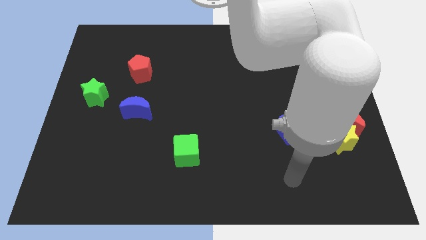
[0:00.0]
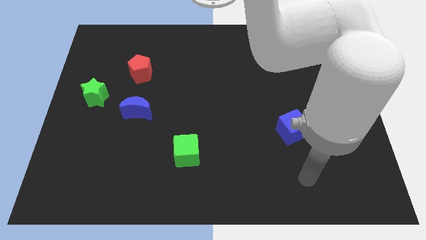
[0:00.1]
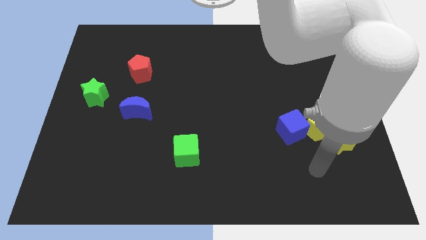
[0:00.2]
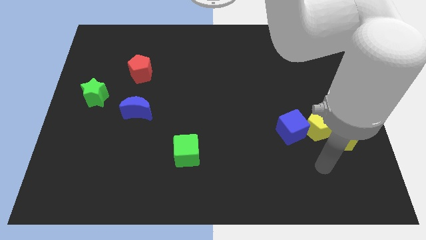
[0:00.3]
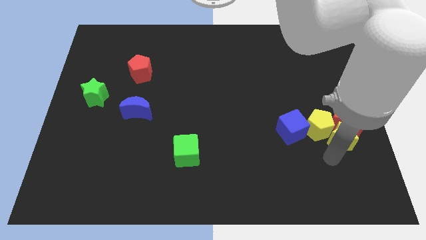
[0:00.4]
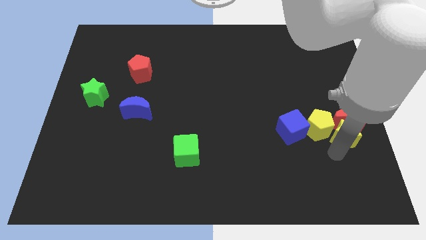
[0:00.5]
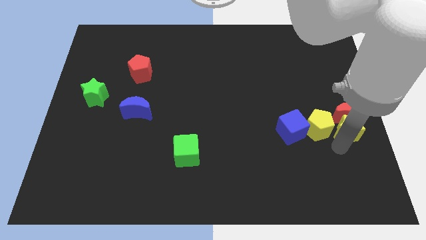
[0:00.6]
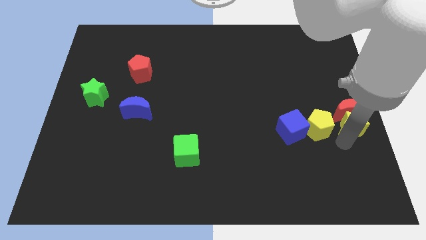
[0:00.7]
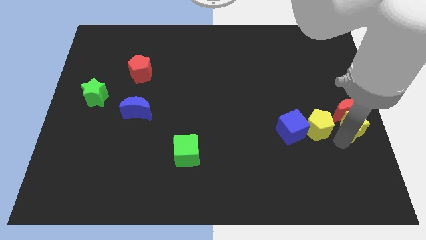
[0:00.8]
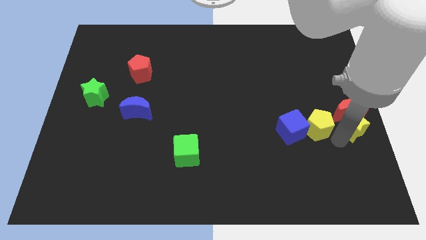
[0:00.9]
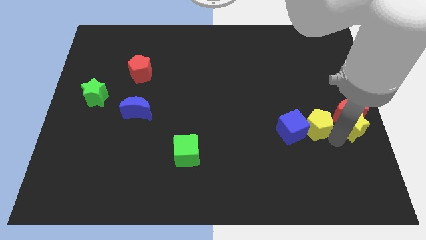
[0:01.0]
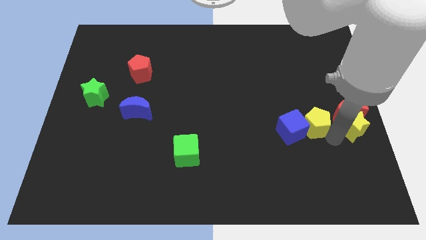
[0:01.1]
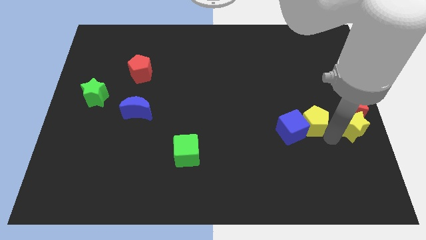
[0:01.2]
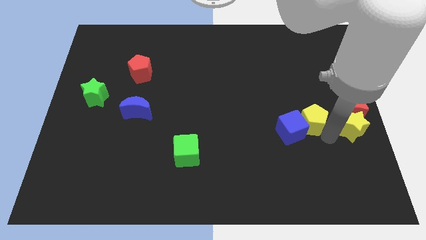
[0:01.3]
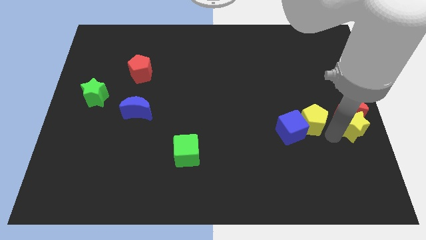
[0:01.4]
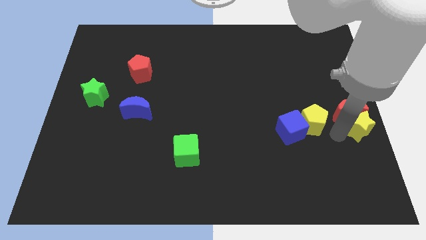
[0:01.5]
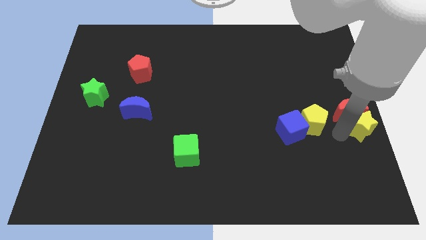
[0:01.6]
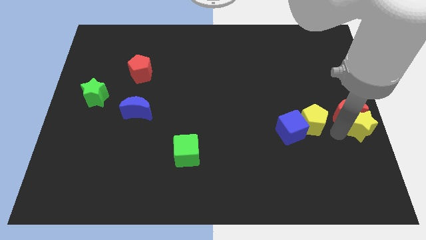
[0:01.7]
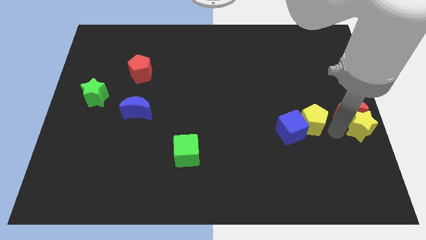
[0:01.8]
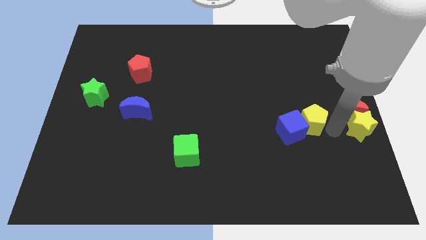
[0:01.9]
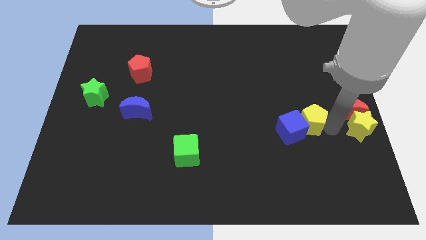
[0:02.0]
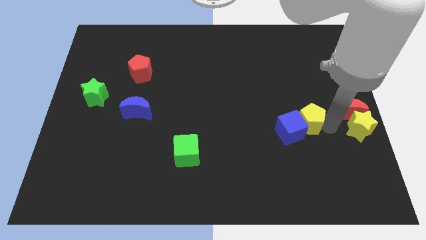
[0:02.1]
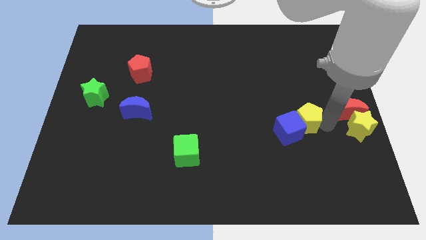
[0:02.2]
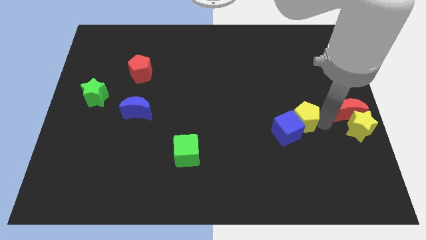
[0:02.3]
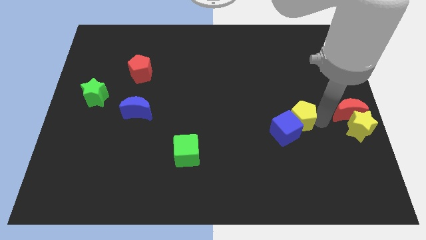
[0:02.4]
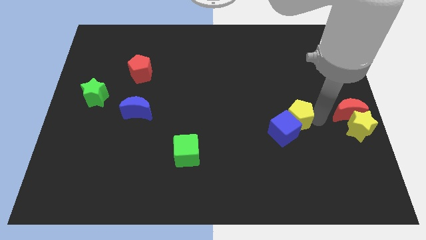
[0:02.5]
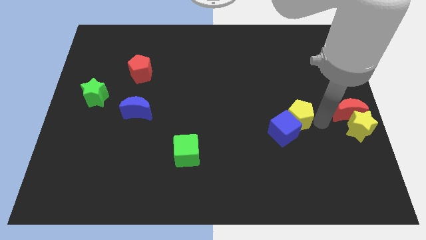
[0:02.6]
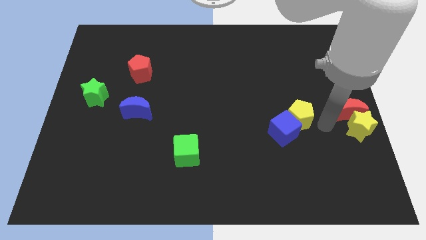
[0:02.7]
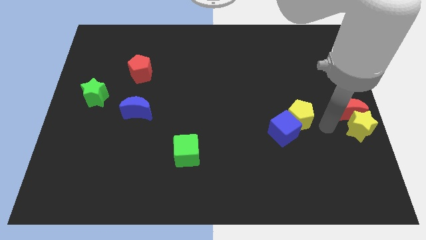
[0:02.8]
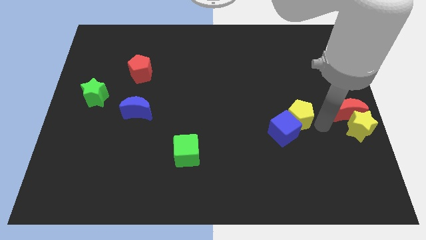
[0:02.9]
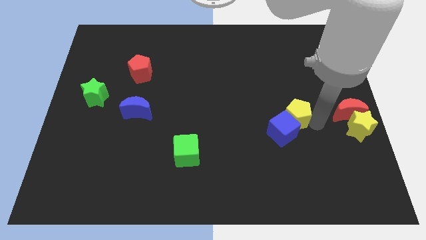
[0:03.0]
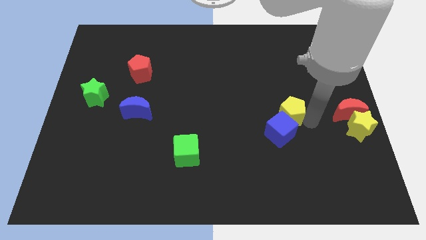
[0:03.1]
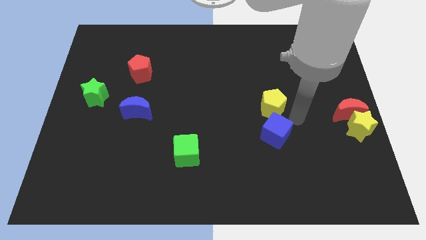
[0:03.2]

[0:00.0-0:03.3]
slightly move the yellow pentagon up and then left

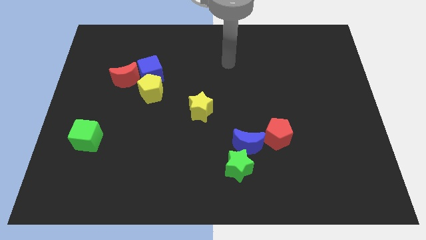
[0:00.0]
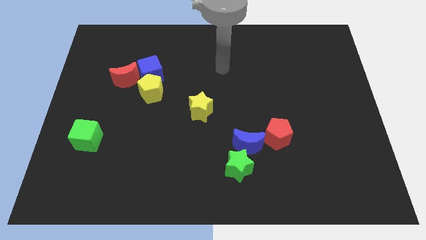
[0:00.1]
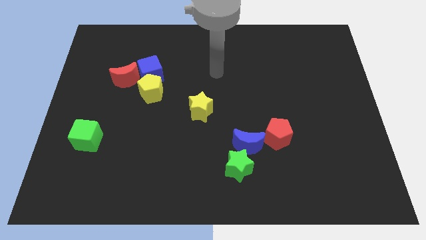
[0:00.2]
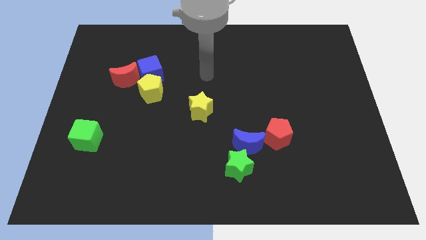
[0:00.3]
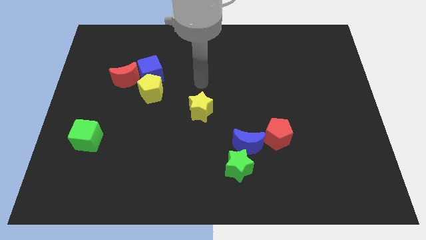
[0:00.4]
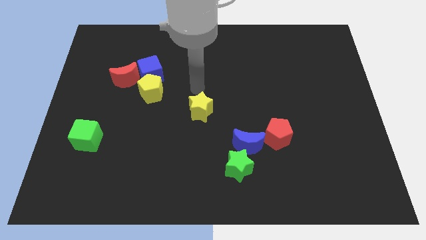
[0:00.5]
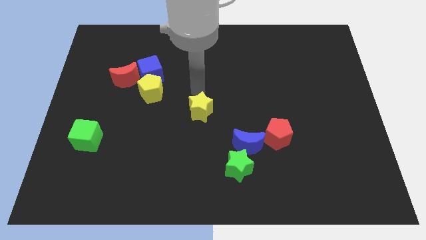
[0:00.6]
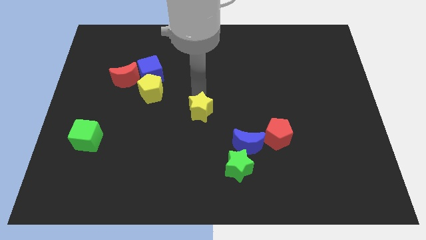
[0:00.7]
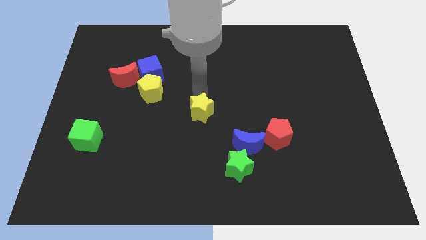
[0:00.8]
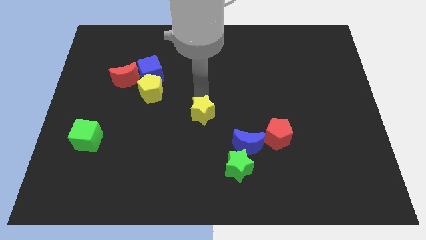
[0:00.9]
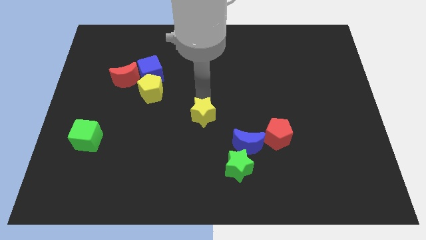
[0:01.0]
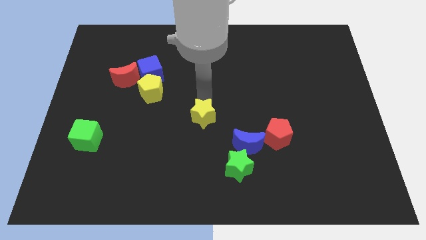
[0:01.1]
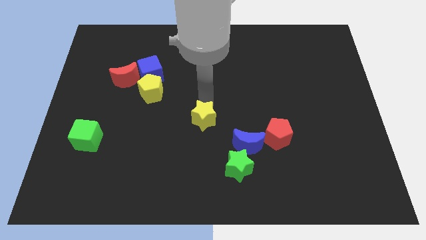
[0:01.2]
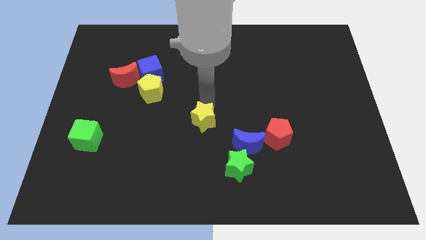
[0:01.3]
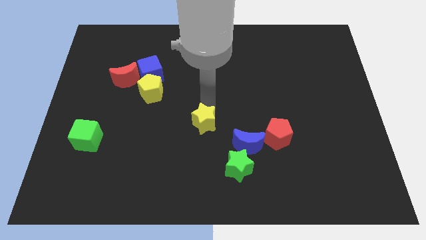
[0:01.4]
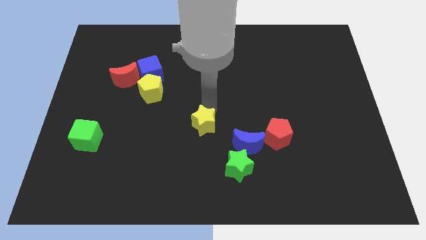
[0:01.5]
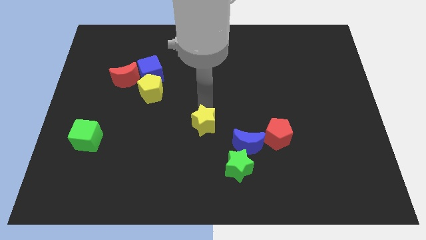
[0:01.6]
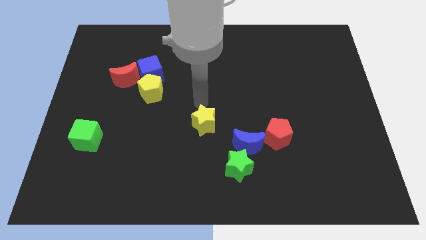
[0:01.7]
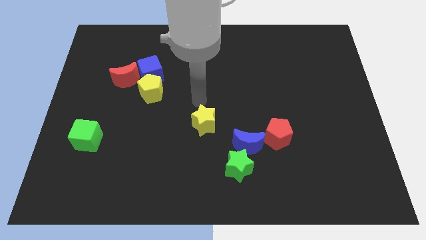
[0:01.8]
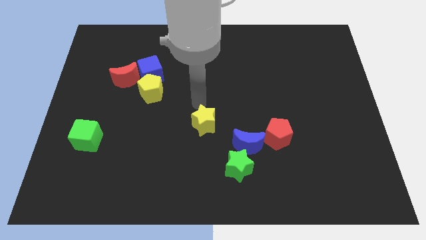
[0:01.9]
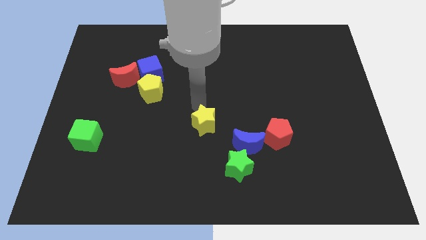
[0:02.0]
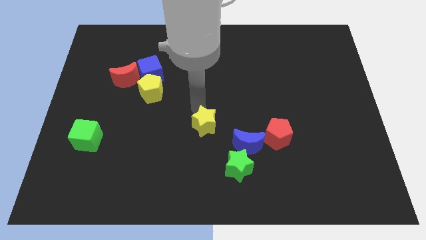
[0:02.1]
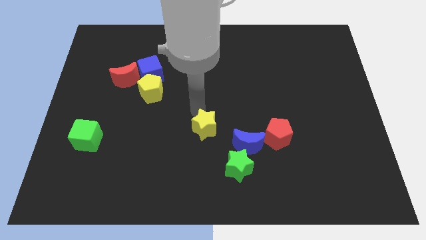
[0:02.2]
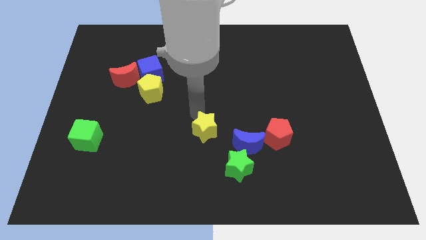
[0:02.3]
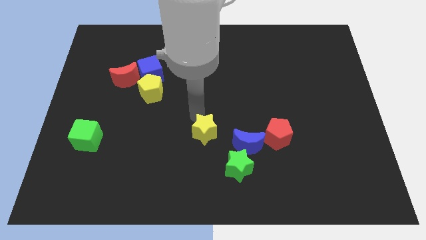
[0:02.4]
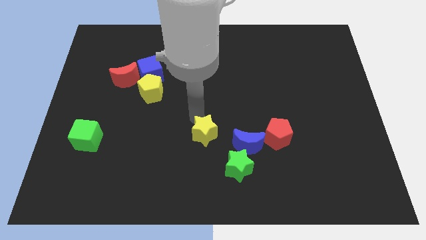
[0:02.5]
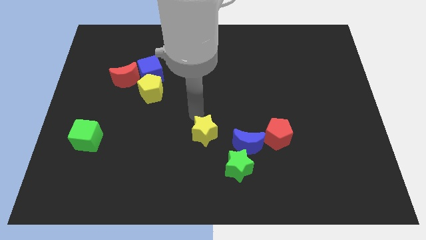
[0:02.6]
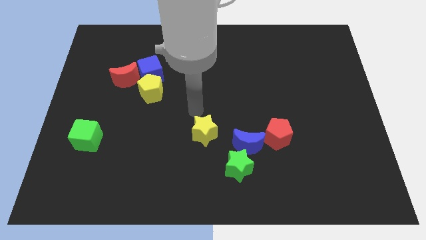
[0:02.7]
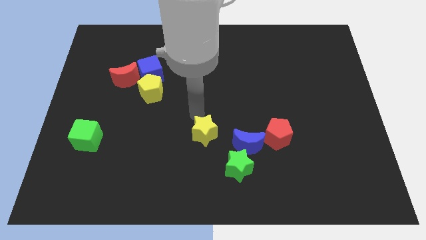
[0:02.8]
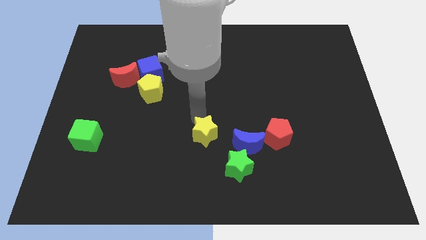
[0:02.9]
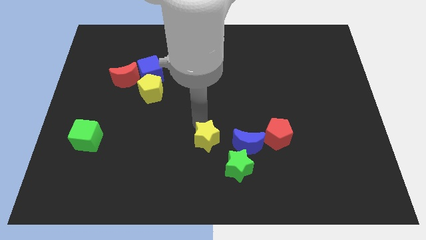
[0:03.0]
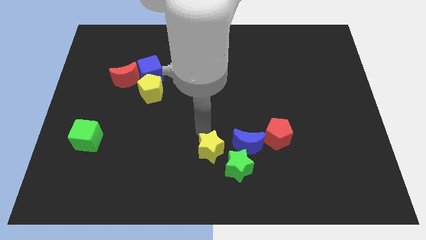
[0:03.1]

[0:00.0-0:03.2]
move the yellow star a little downwards and to the right diagonally

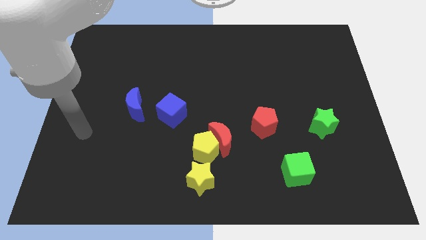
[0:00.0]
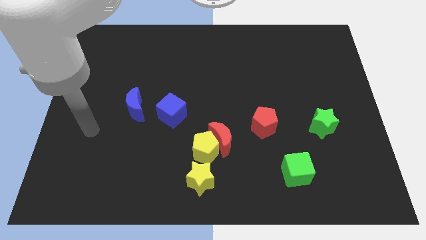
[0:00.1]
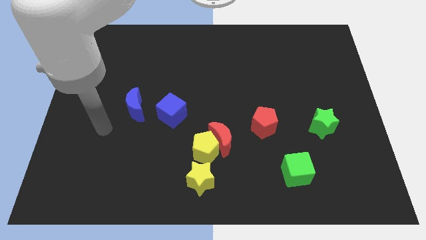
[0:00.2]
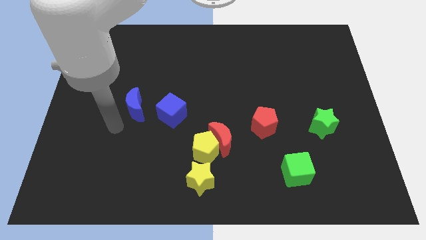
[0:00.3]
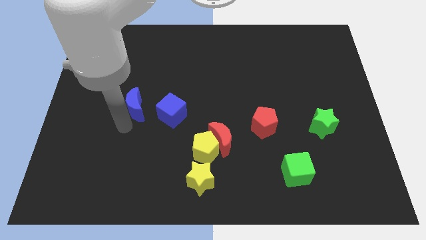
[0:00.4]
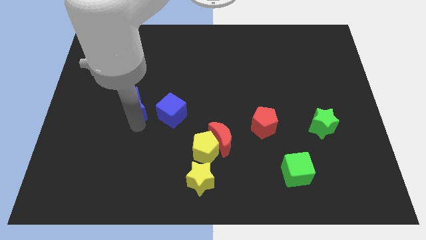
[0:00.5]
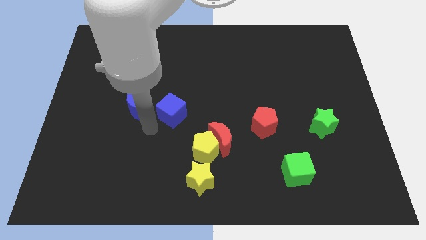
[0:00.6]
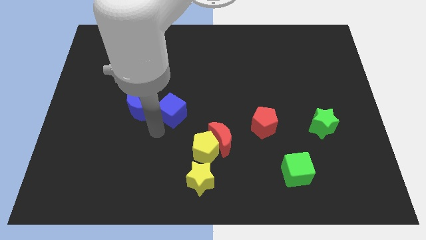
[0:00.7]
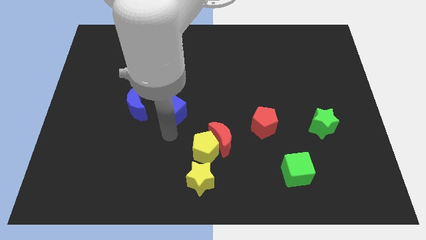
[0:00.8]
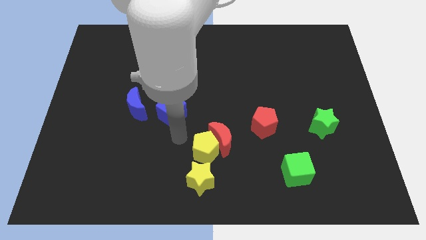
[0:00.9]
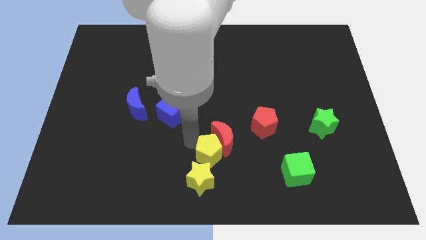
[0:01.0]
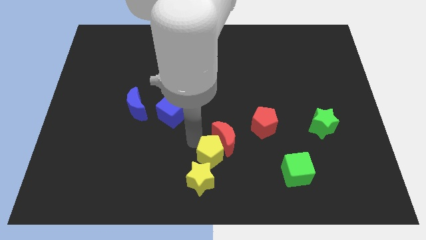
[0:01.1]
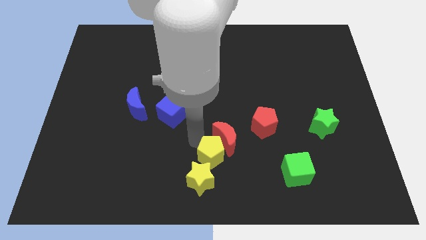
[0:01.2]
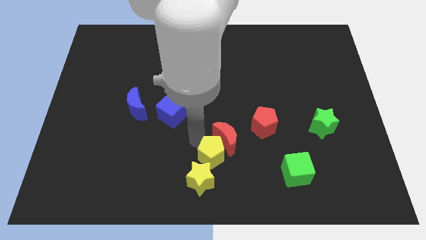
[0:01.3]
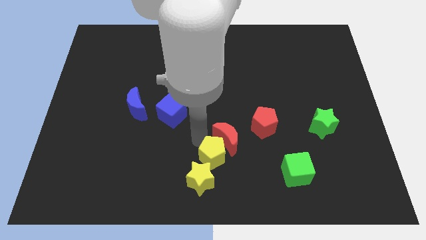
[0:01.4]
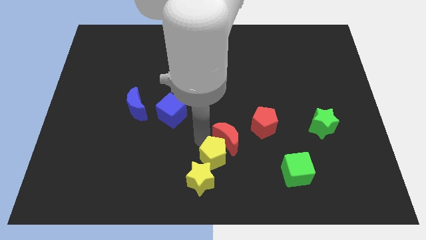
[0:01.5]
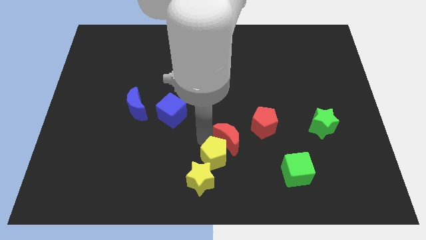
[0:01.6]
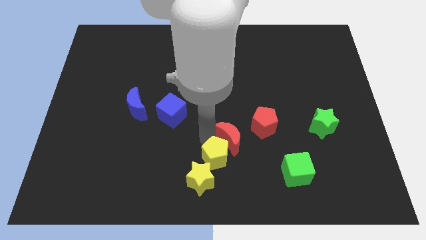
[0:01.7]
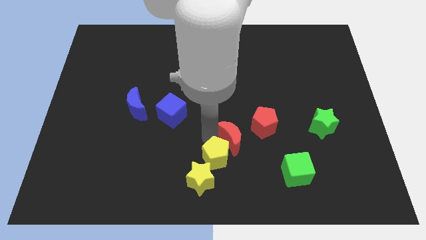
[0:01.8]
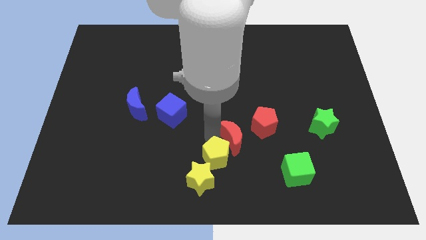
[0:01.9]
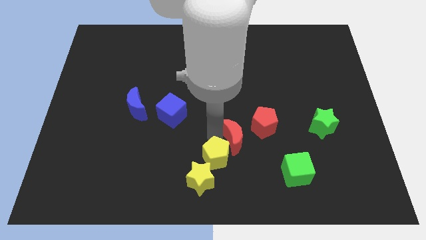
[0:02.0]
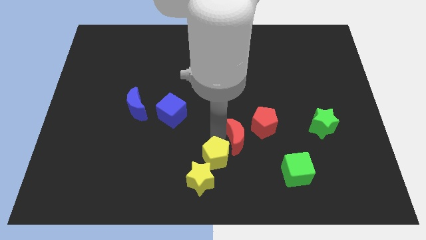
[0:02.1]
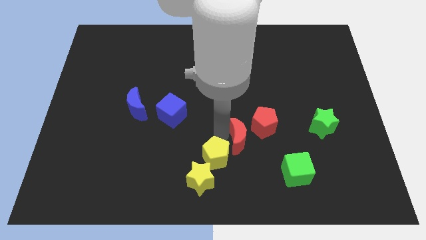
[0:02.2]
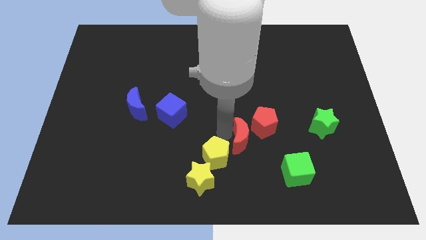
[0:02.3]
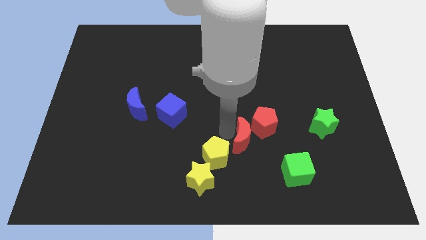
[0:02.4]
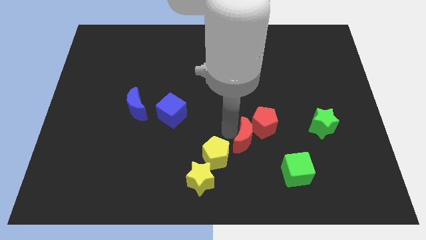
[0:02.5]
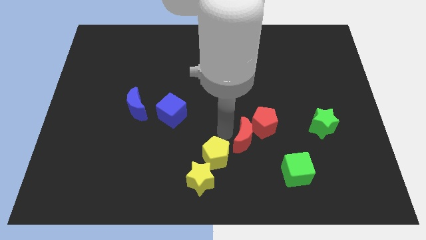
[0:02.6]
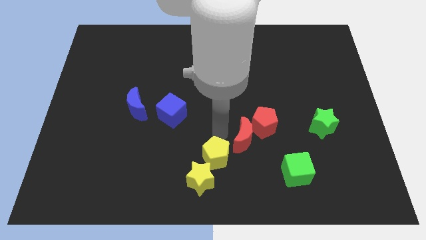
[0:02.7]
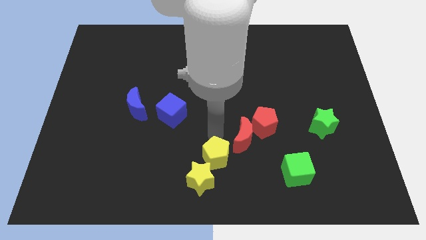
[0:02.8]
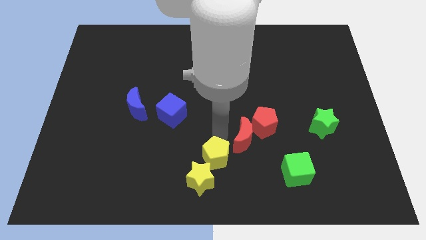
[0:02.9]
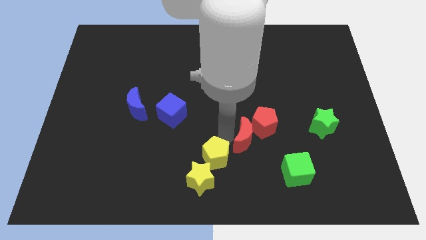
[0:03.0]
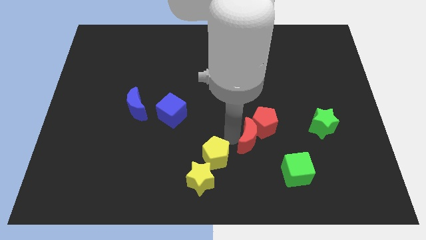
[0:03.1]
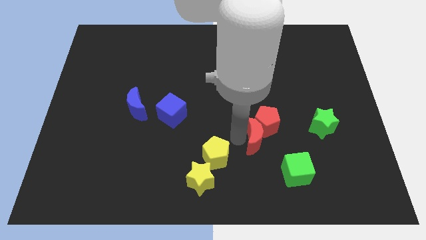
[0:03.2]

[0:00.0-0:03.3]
move the red moon a little bit to the right
